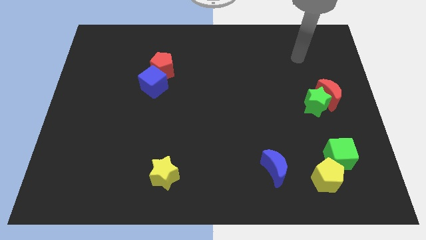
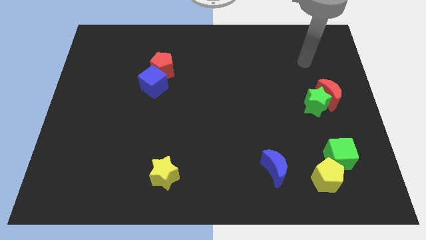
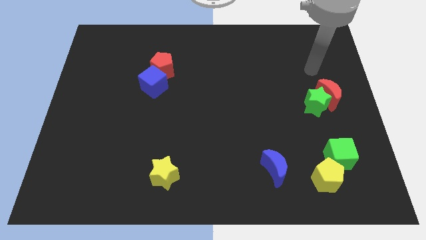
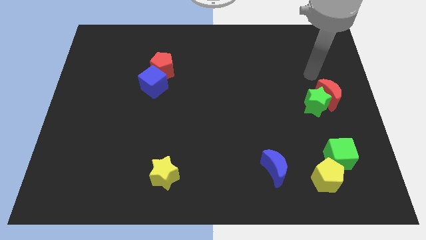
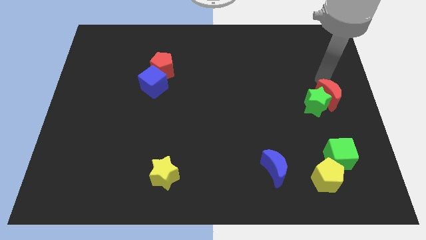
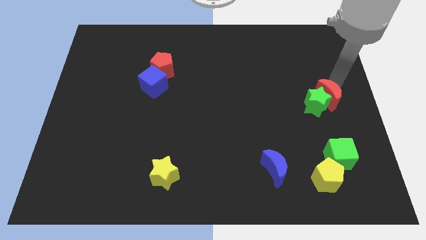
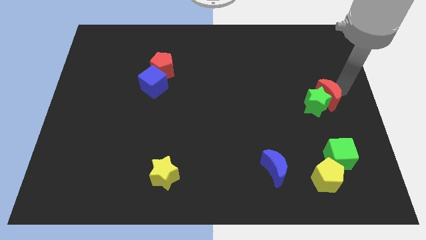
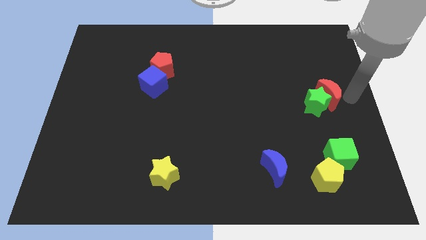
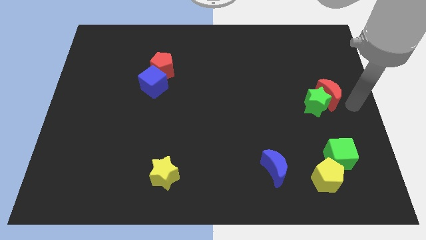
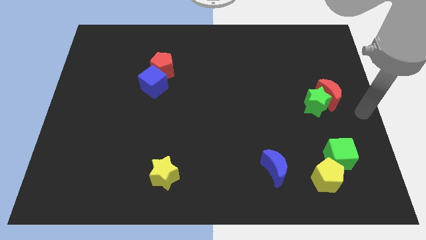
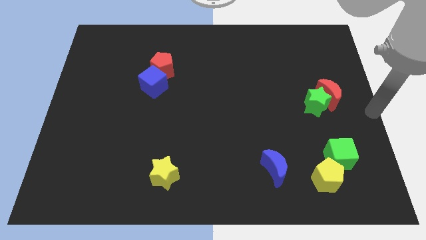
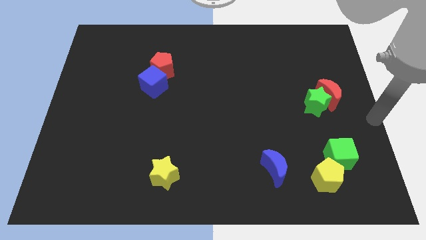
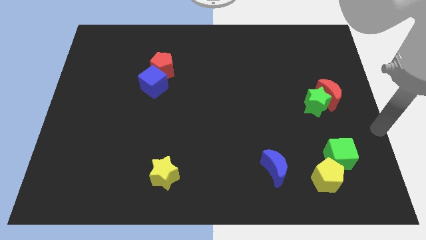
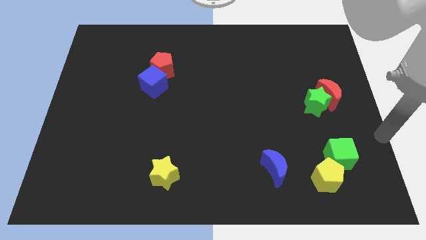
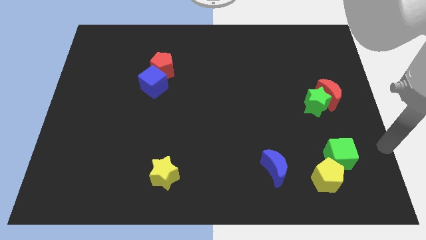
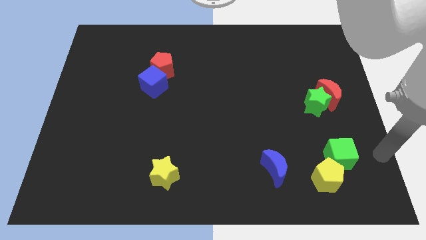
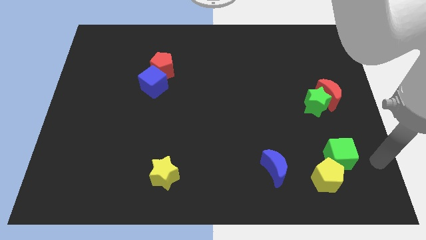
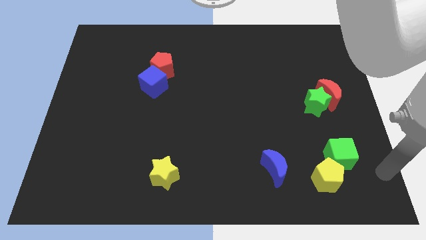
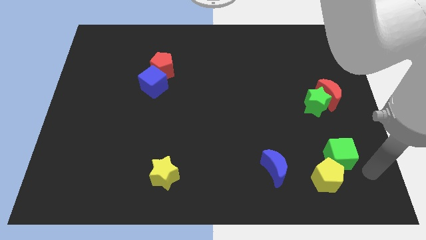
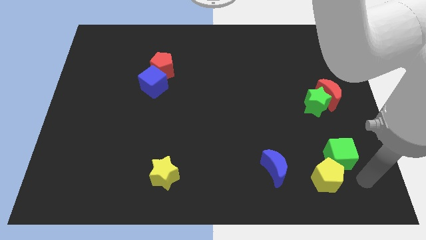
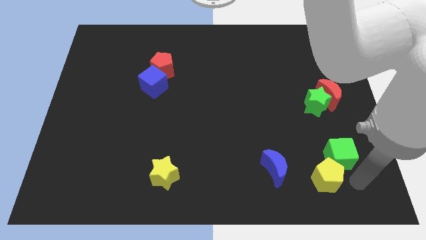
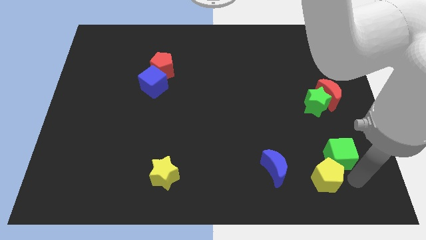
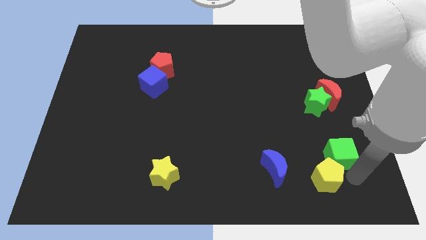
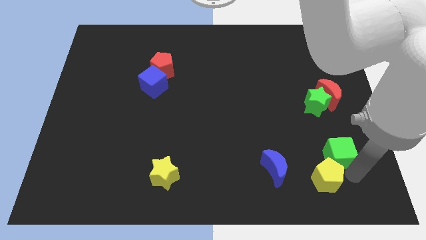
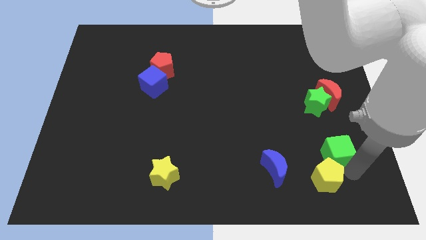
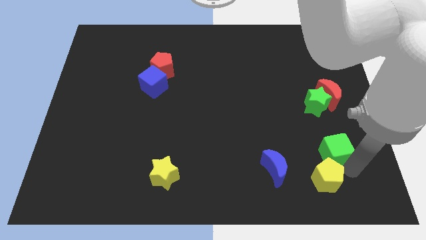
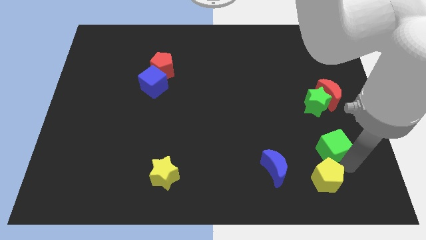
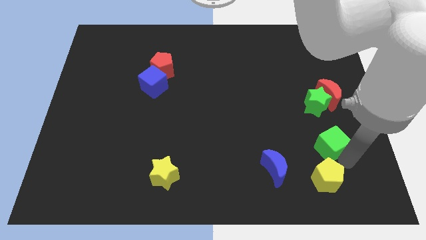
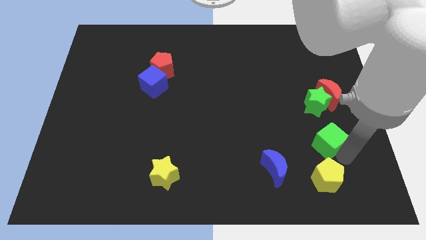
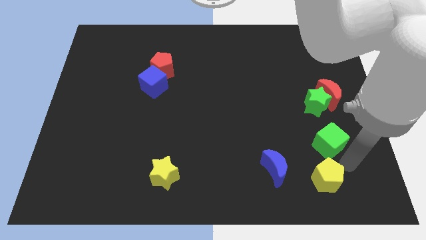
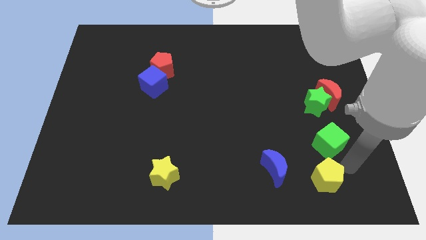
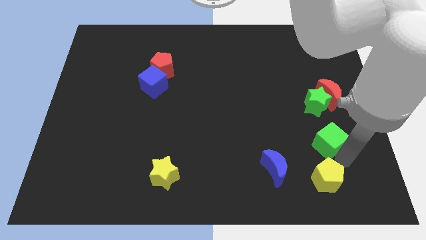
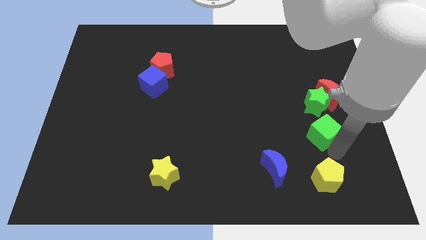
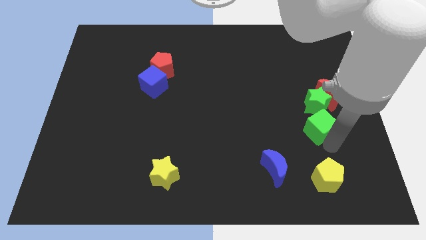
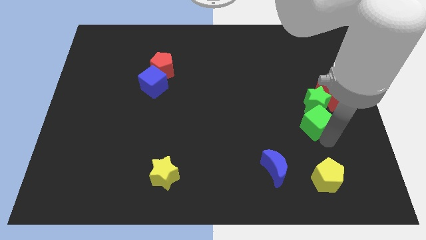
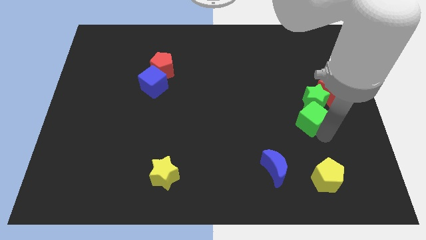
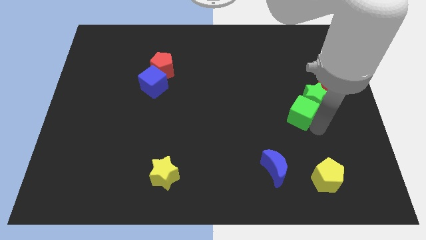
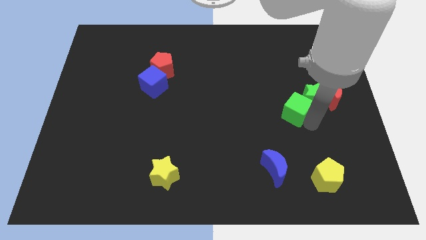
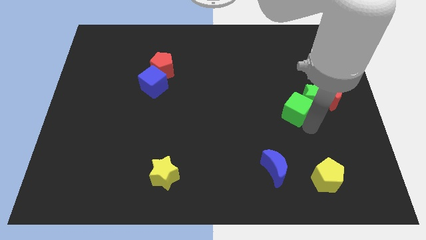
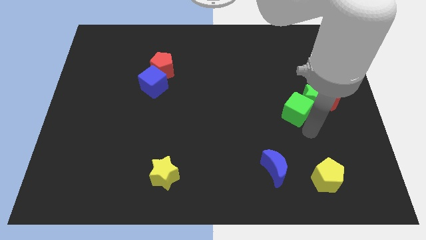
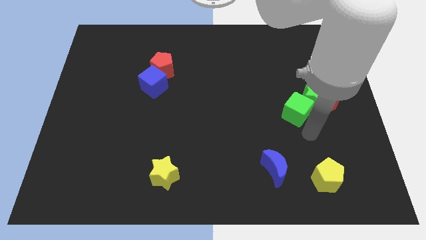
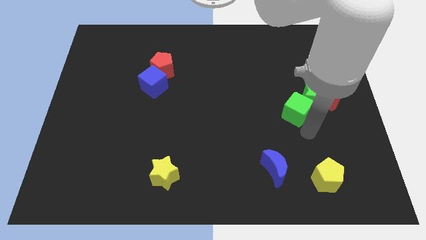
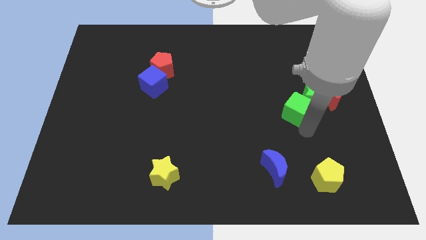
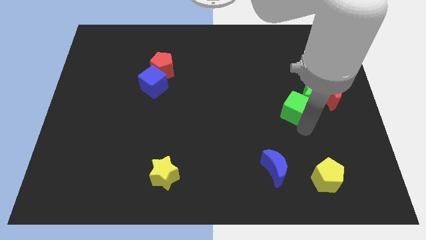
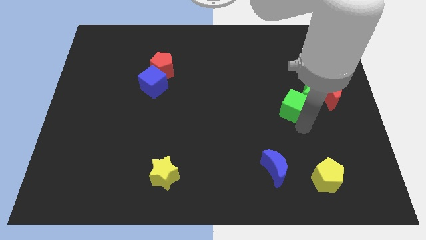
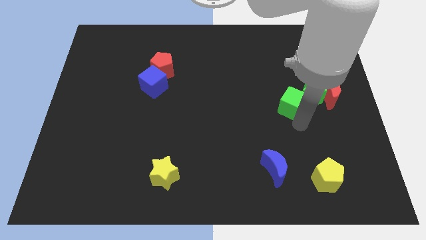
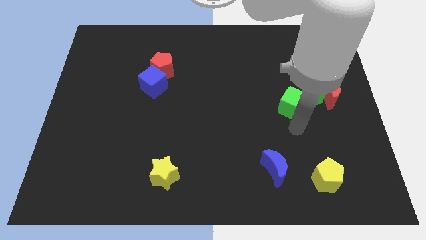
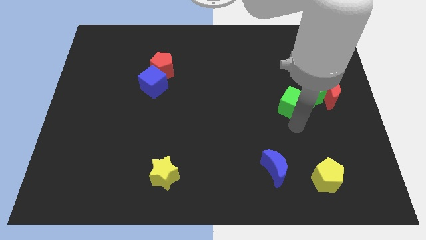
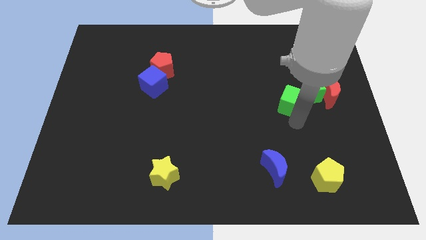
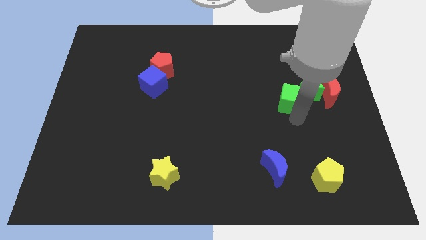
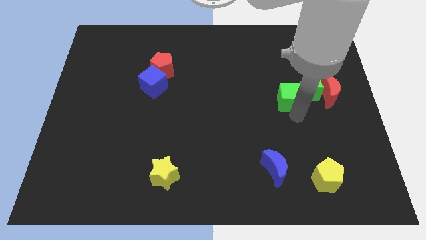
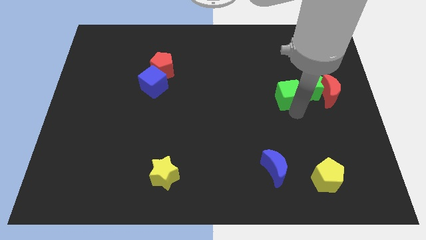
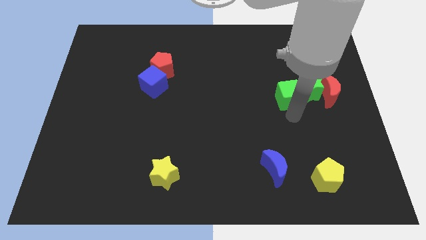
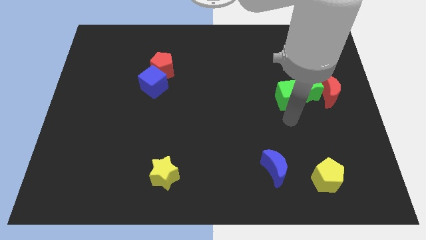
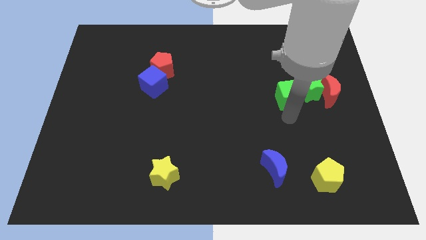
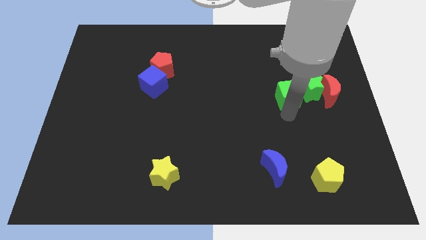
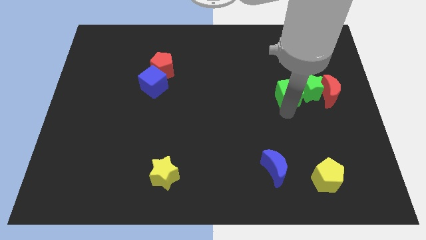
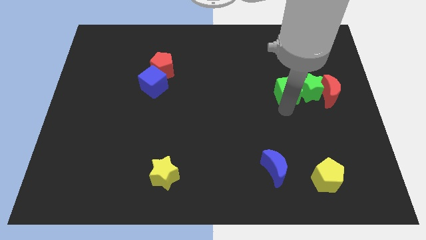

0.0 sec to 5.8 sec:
slide the green cube to the top left side of the green star
